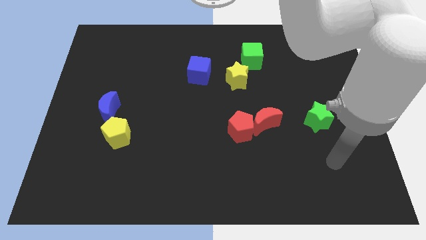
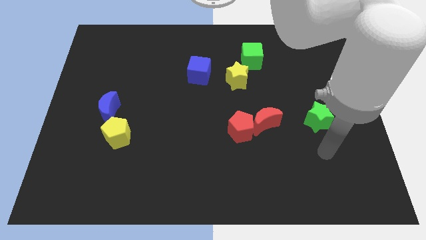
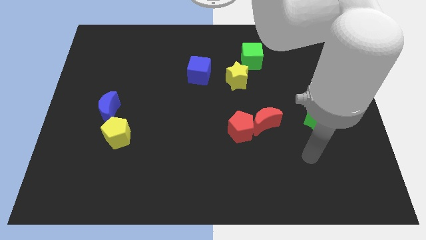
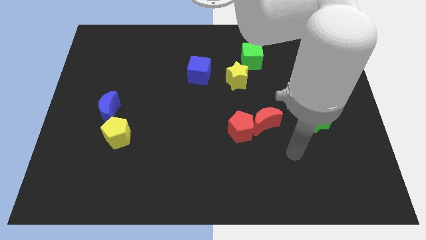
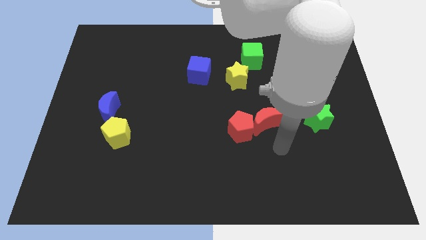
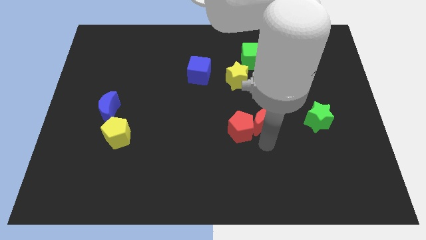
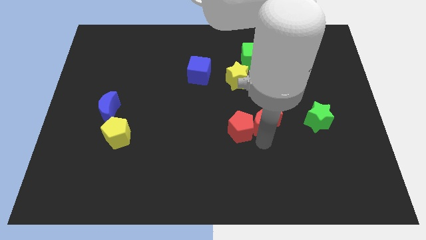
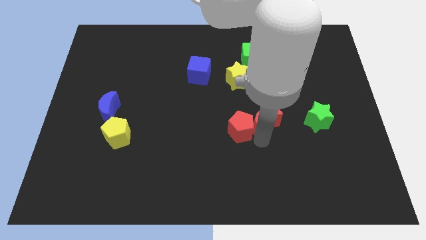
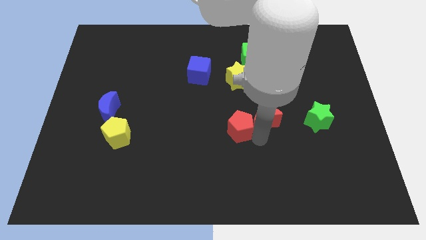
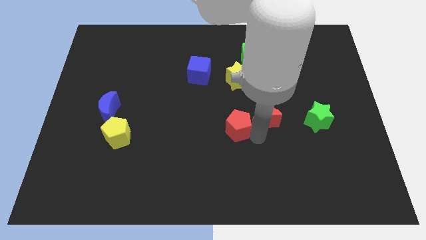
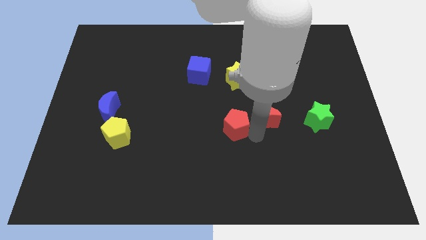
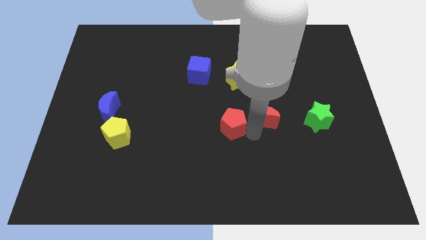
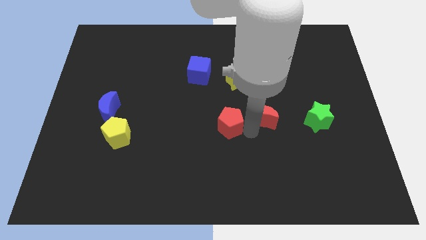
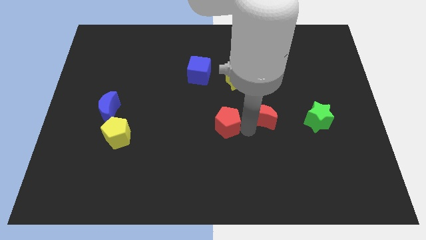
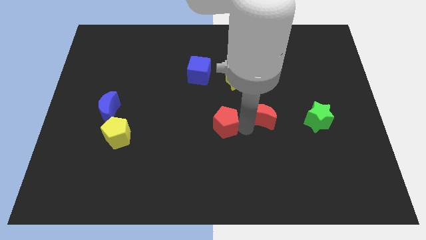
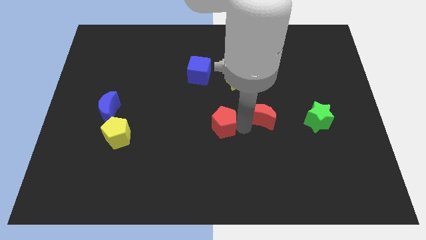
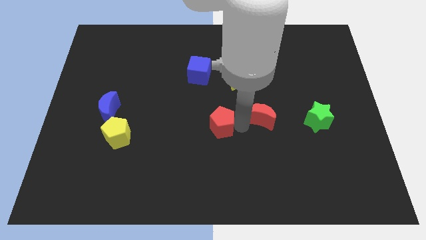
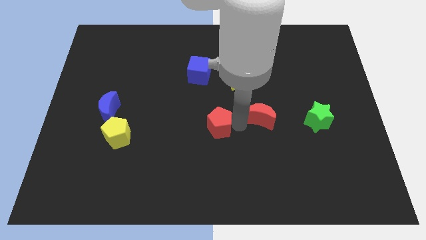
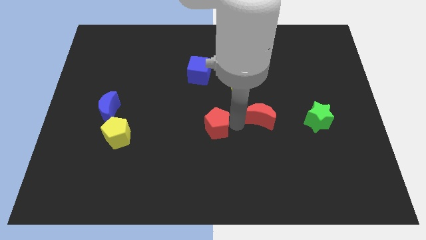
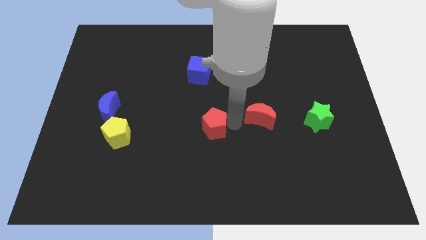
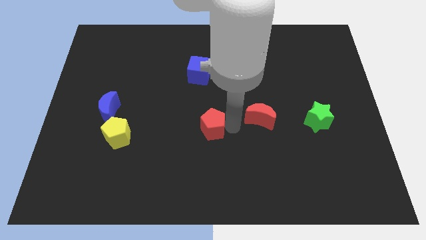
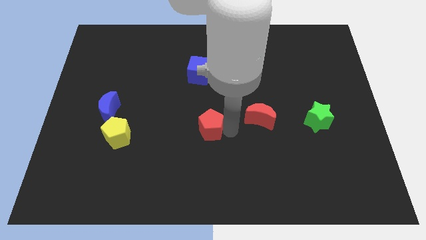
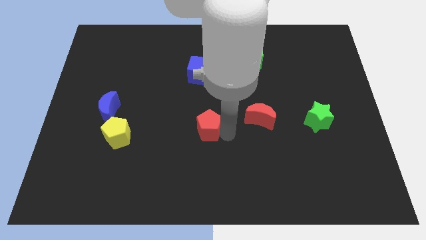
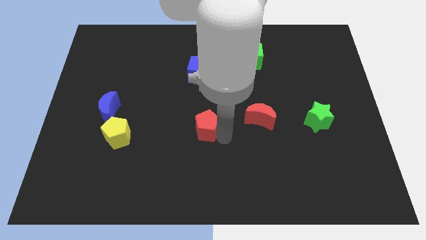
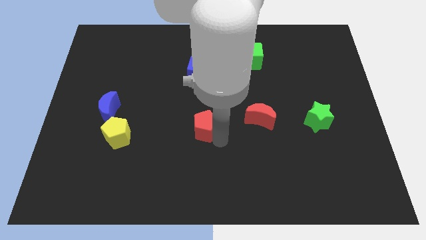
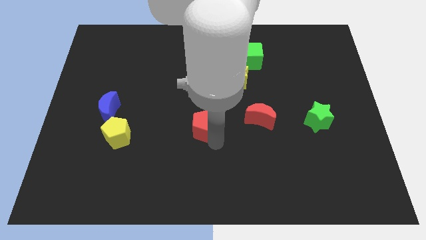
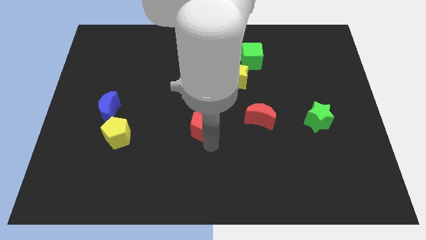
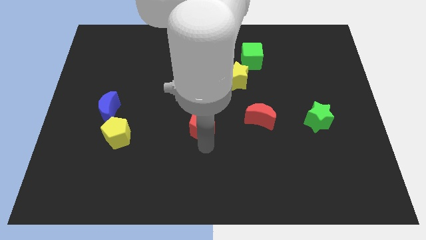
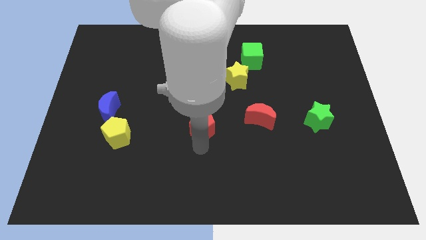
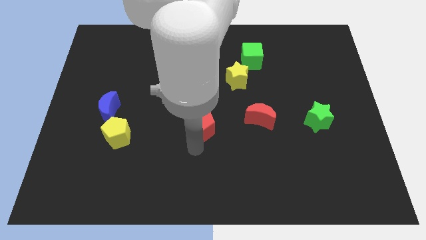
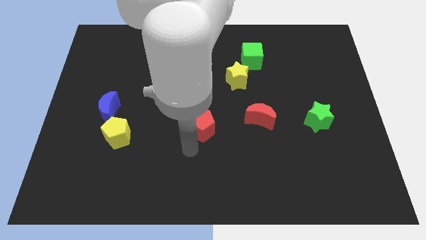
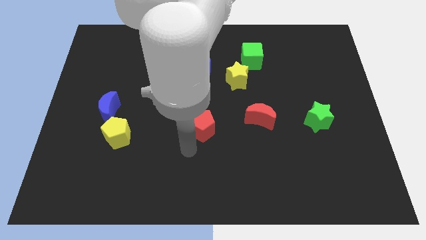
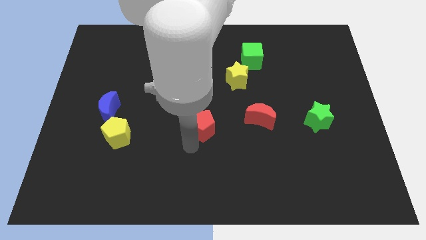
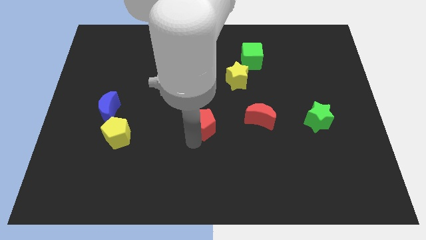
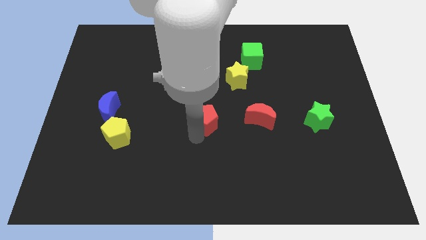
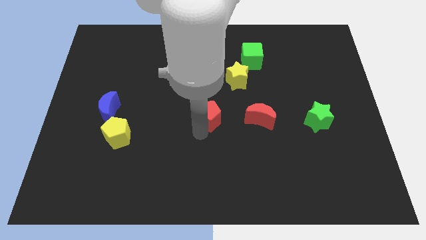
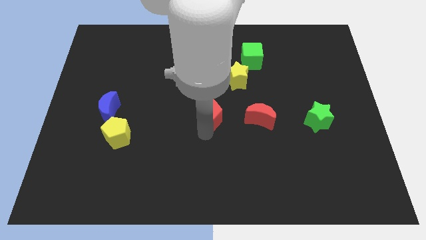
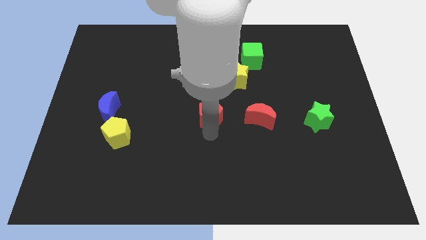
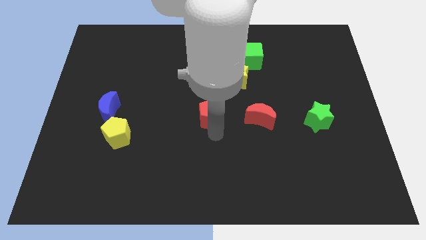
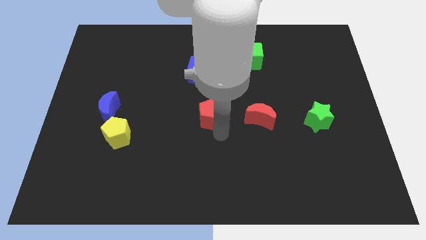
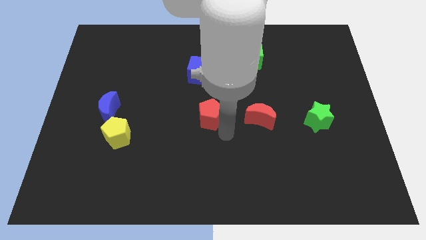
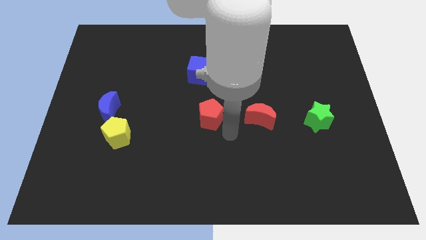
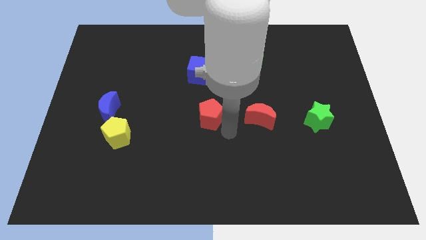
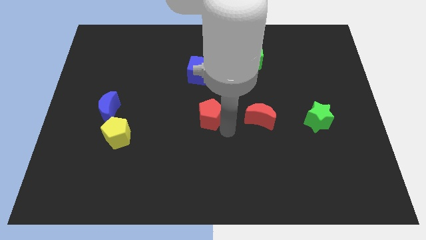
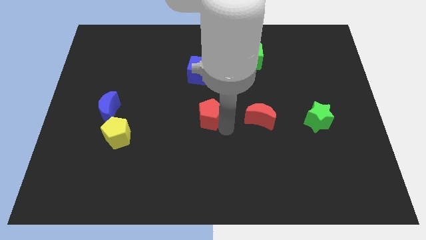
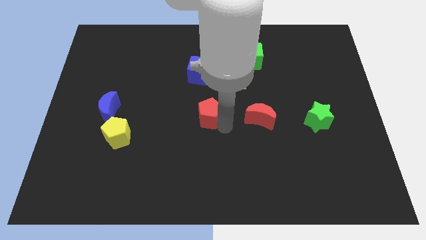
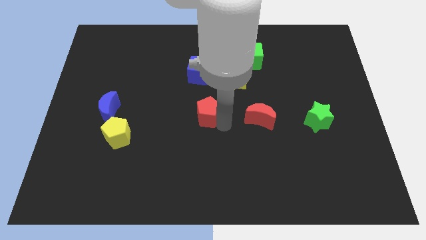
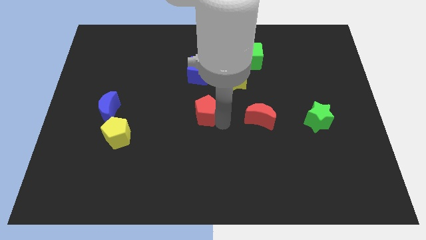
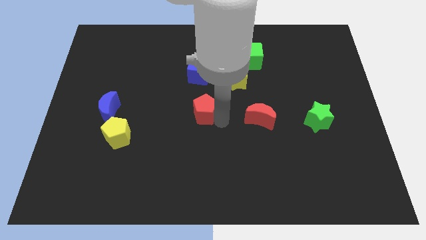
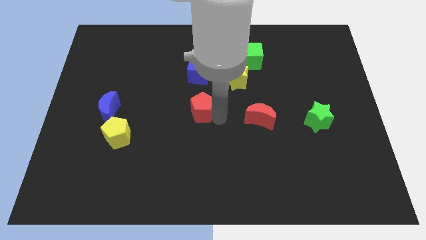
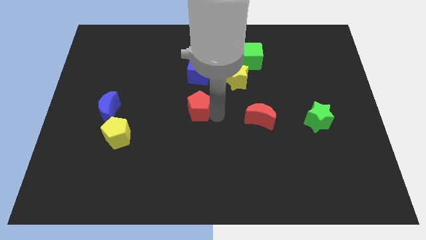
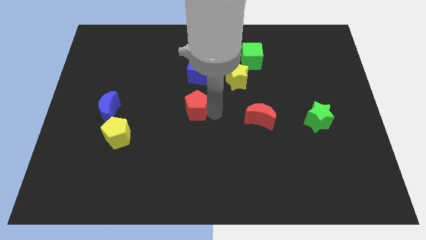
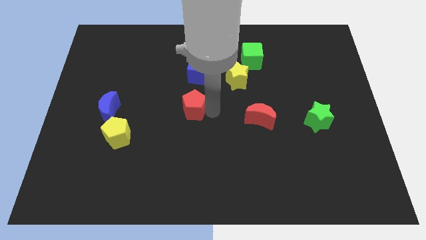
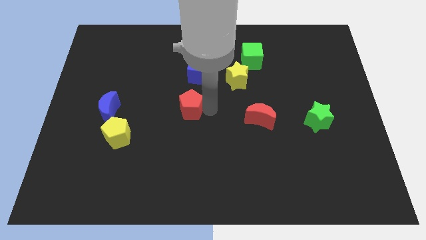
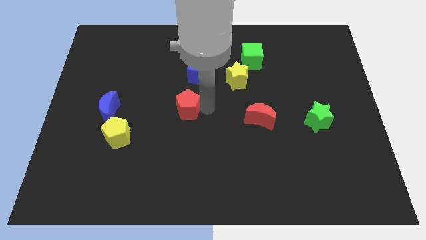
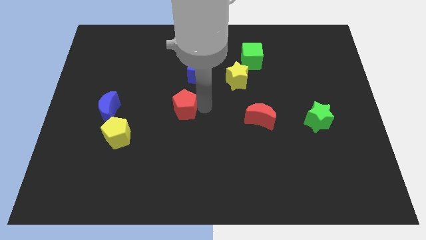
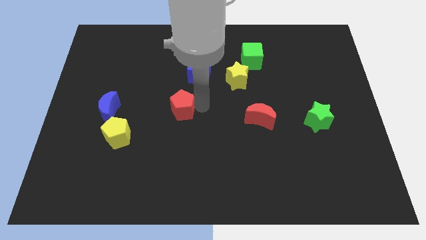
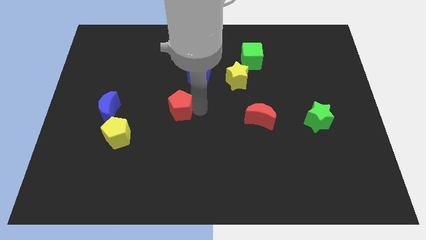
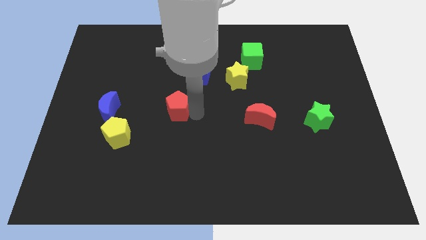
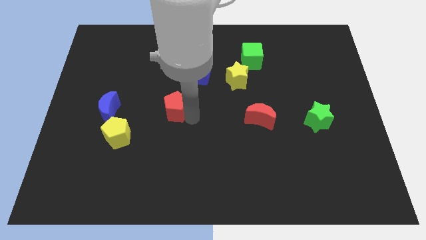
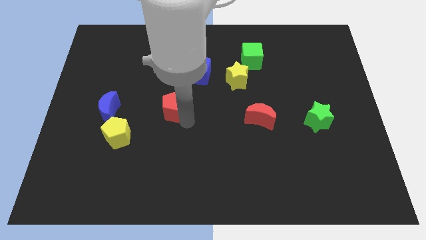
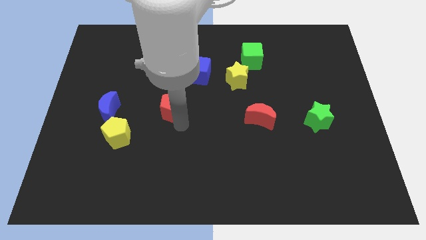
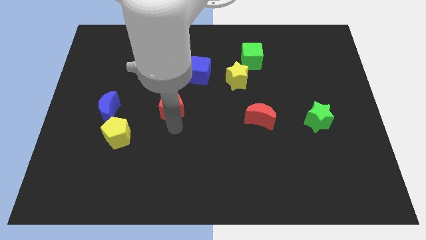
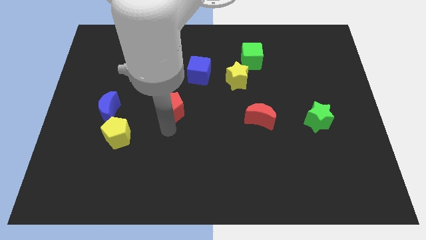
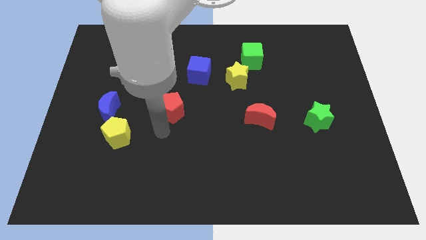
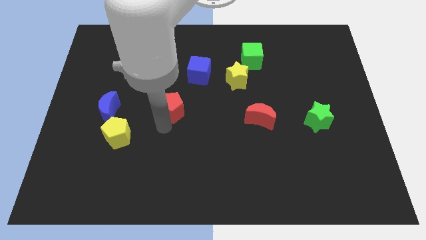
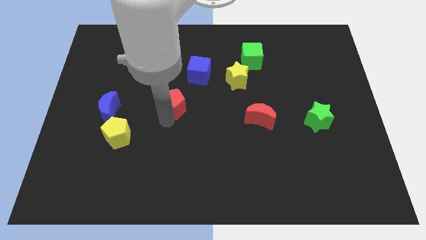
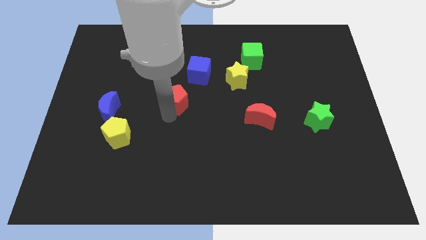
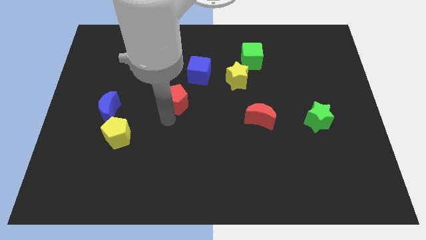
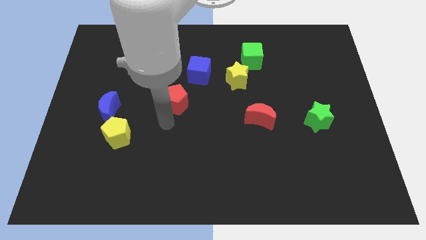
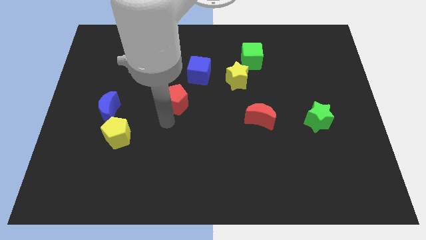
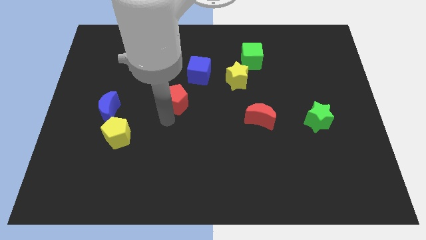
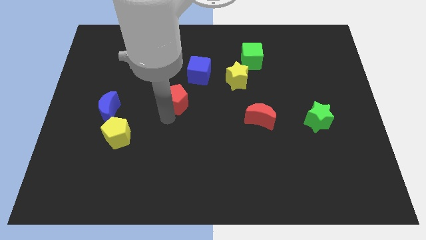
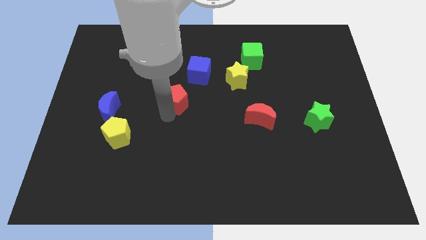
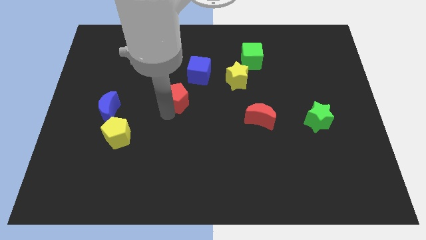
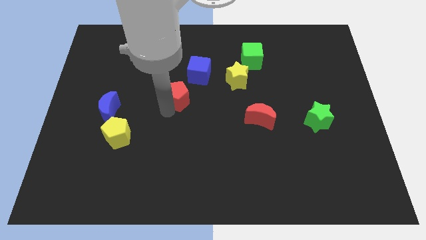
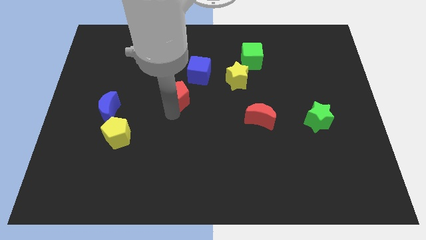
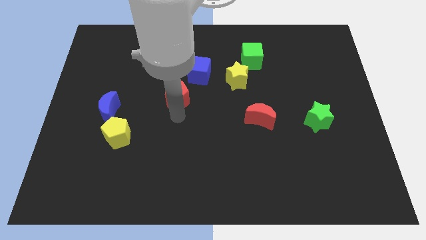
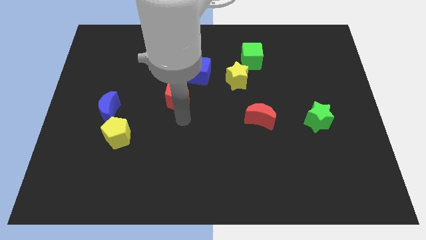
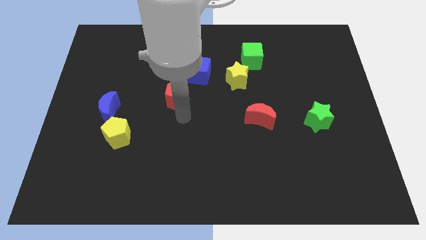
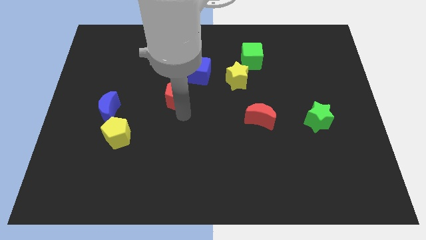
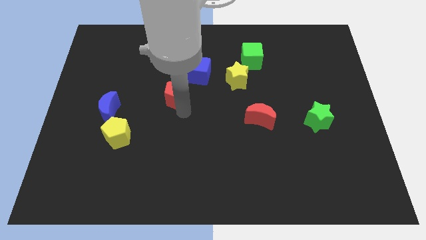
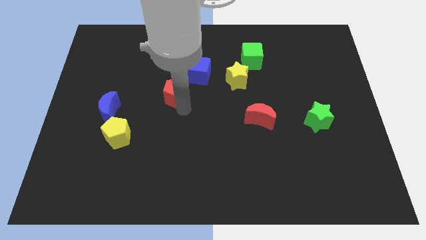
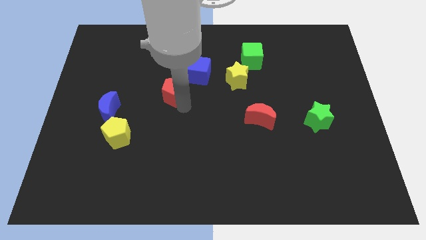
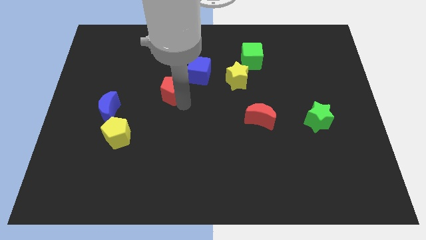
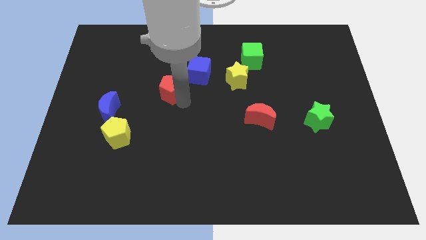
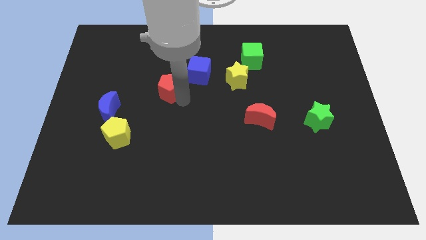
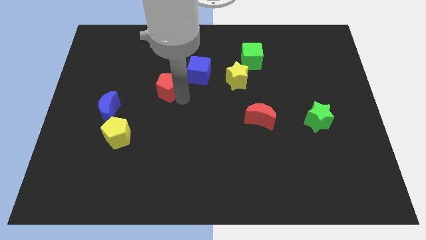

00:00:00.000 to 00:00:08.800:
slide the red pentagon upwards and then left
